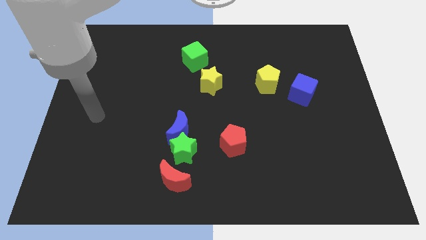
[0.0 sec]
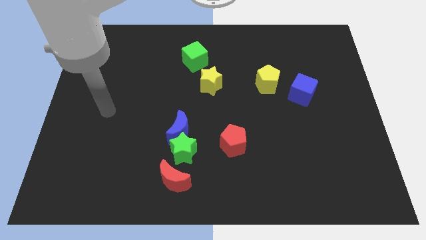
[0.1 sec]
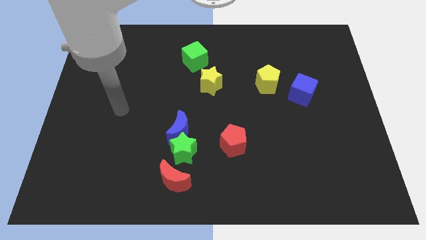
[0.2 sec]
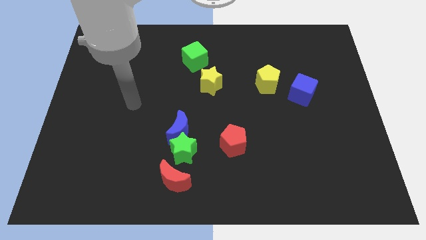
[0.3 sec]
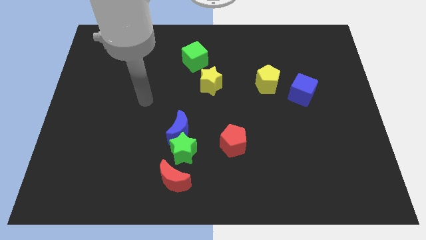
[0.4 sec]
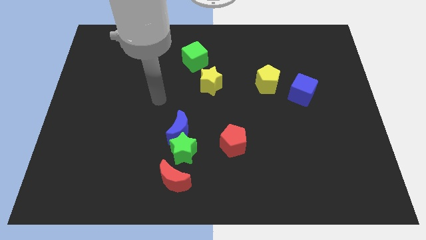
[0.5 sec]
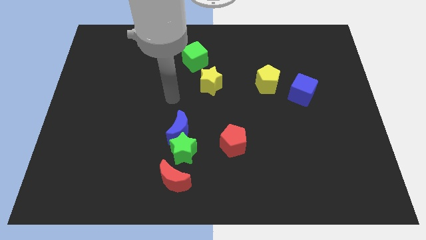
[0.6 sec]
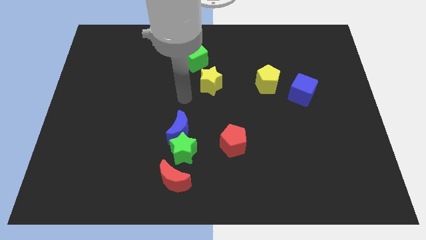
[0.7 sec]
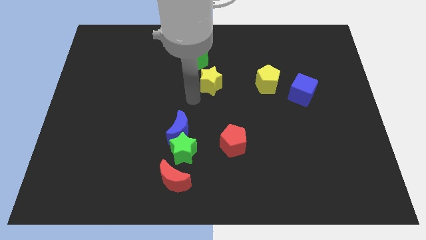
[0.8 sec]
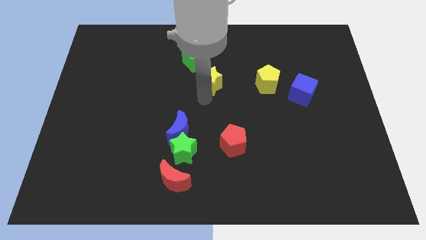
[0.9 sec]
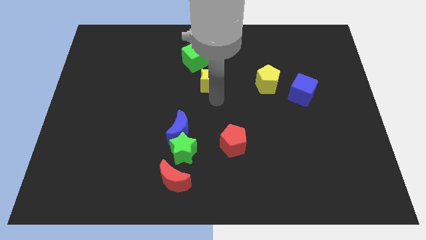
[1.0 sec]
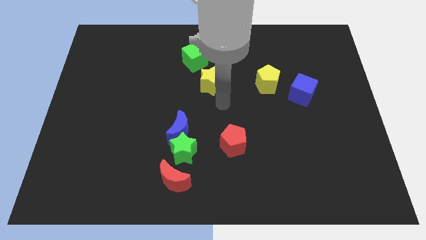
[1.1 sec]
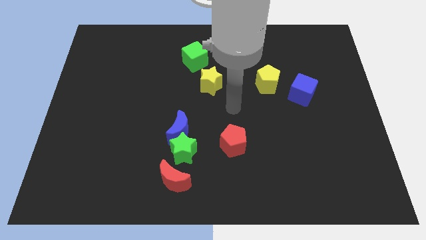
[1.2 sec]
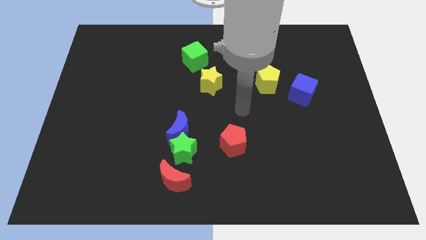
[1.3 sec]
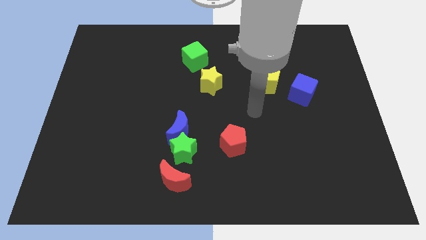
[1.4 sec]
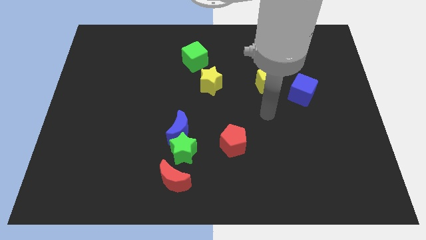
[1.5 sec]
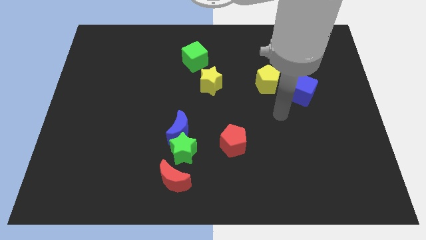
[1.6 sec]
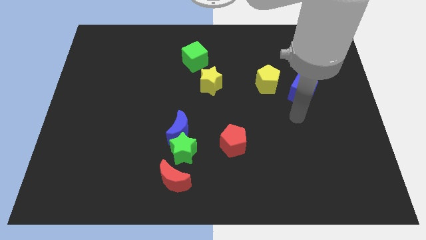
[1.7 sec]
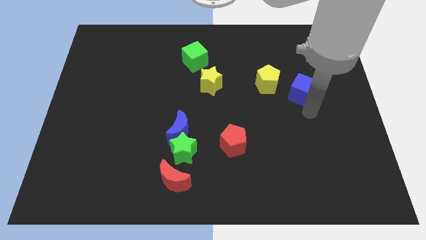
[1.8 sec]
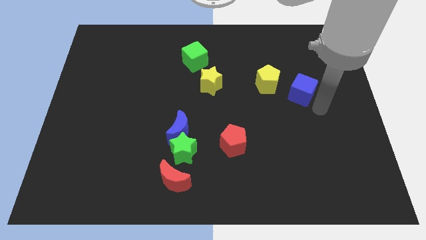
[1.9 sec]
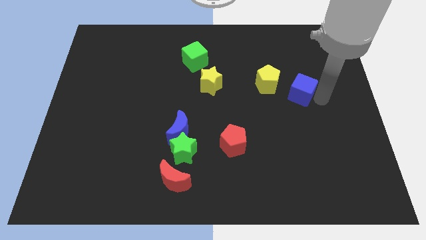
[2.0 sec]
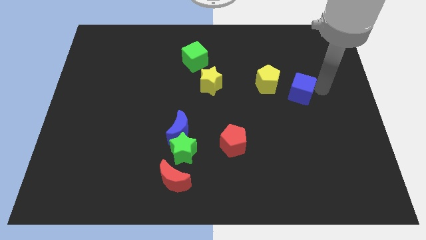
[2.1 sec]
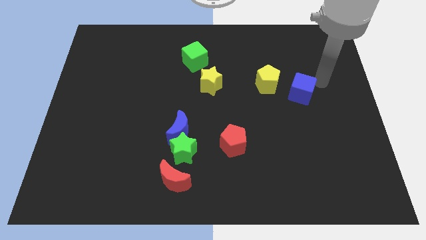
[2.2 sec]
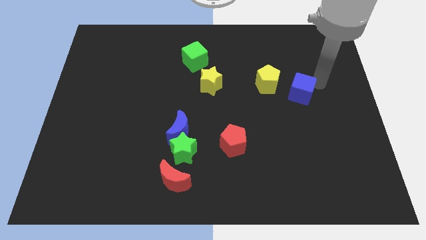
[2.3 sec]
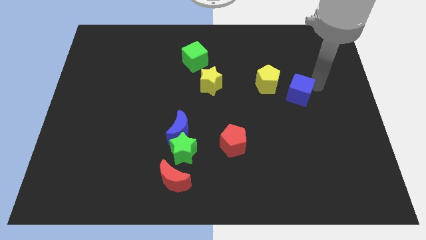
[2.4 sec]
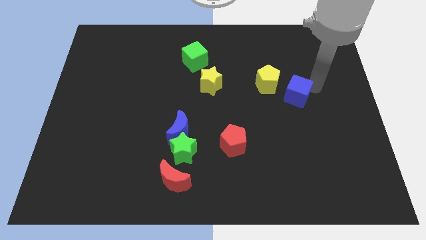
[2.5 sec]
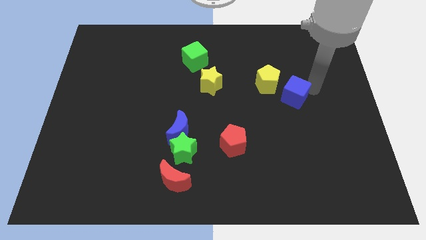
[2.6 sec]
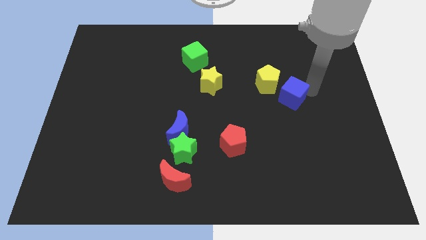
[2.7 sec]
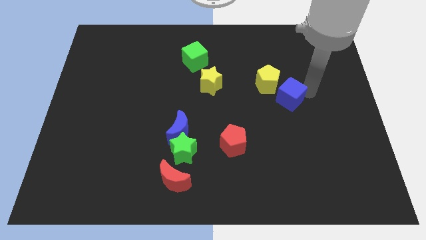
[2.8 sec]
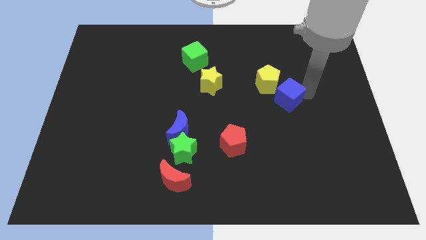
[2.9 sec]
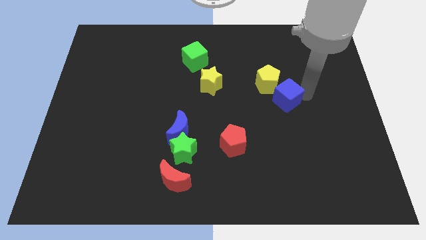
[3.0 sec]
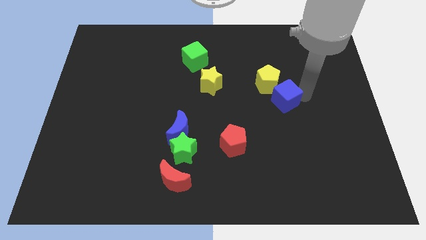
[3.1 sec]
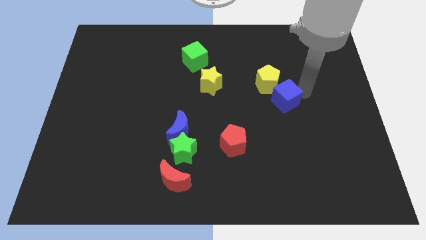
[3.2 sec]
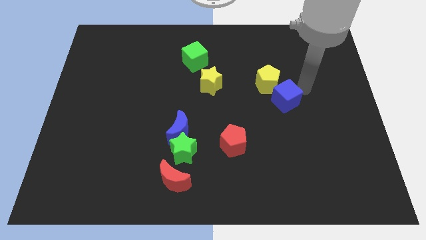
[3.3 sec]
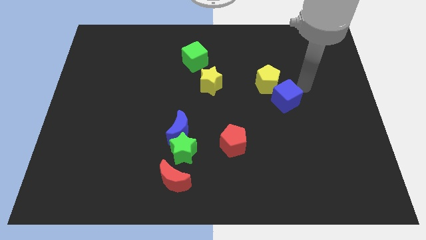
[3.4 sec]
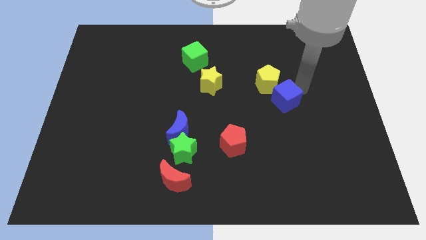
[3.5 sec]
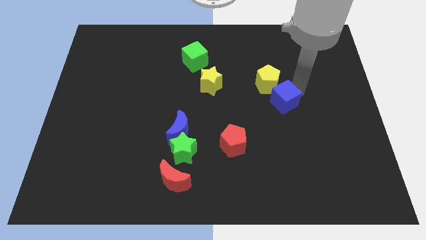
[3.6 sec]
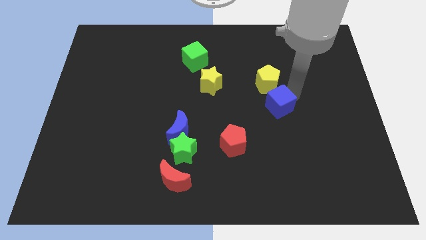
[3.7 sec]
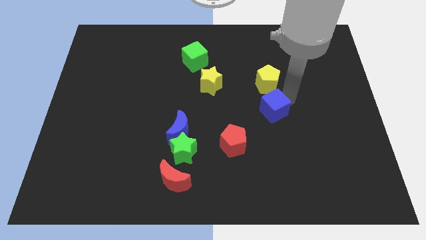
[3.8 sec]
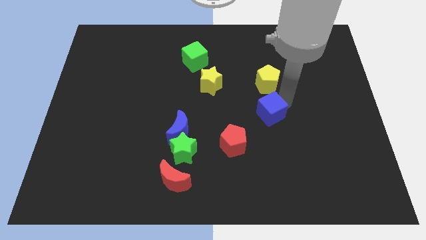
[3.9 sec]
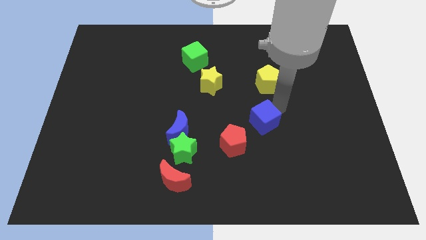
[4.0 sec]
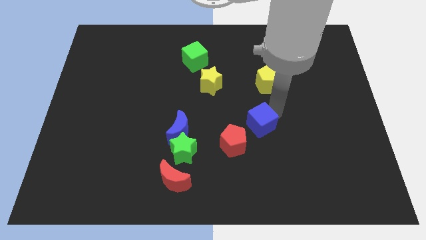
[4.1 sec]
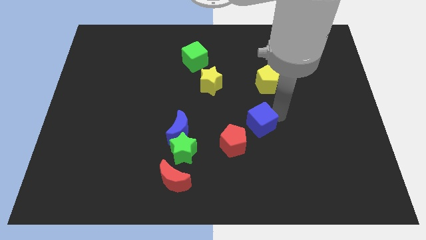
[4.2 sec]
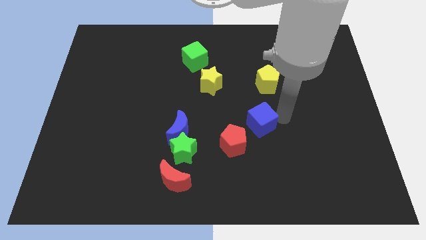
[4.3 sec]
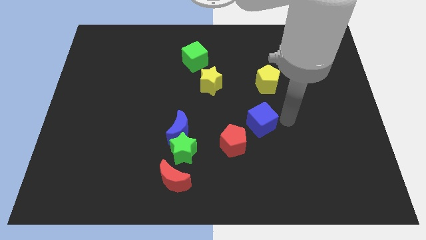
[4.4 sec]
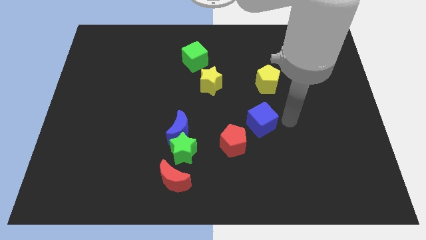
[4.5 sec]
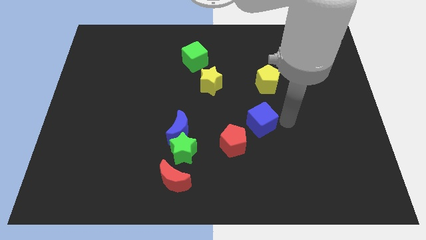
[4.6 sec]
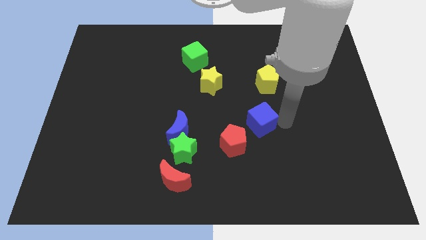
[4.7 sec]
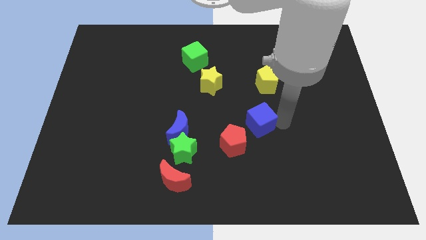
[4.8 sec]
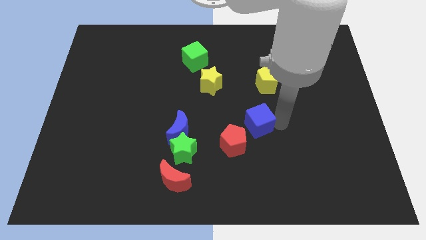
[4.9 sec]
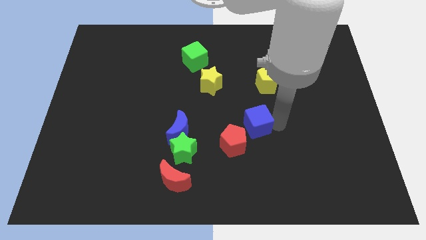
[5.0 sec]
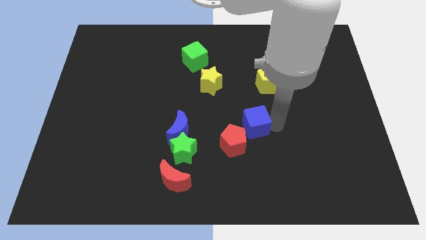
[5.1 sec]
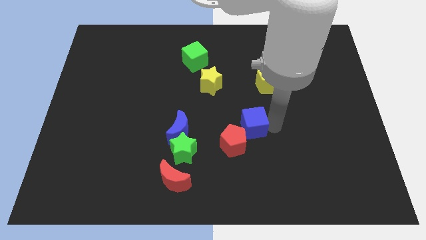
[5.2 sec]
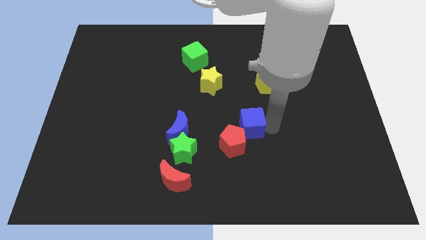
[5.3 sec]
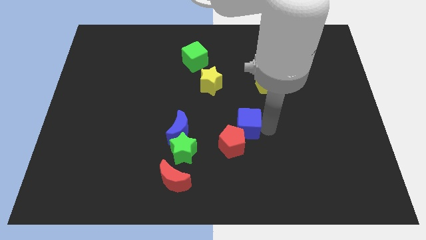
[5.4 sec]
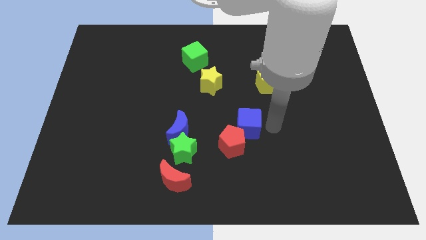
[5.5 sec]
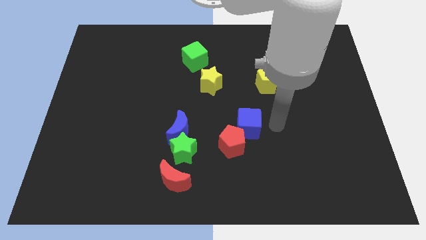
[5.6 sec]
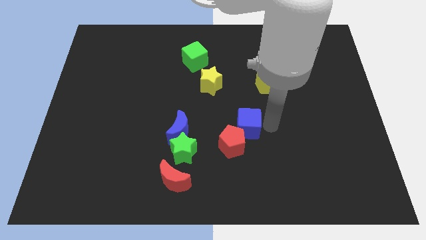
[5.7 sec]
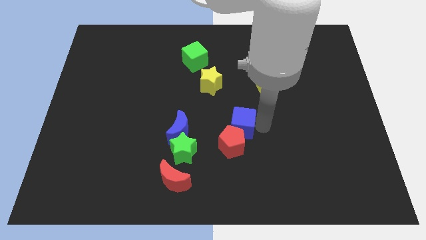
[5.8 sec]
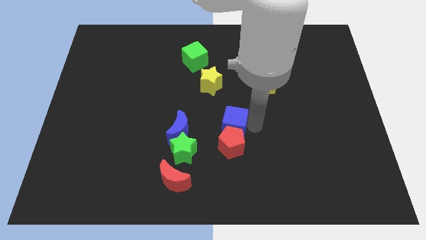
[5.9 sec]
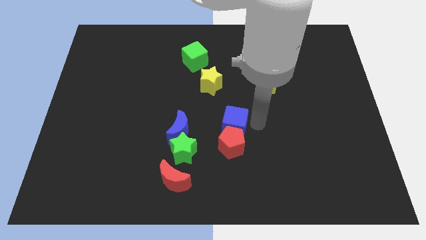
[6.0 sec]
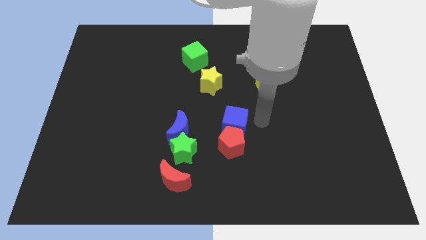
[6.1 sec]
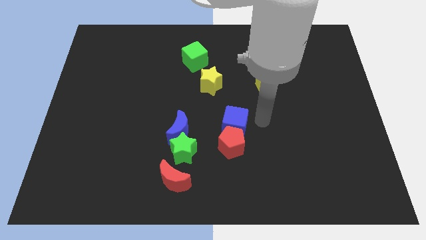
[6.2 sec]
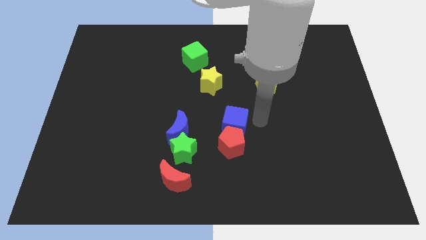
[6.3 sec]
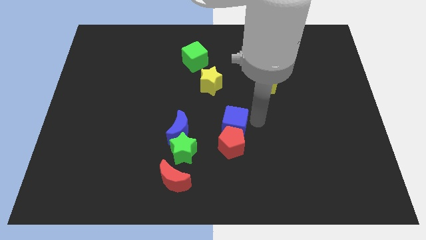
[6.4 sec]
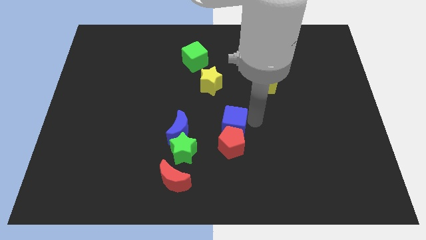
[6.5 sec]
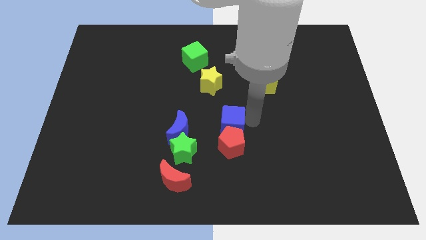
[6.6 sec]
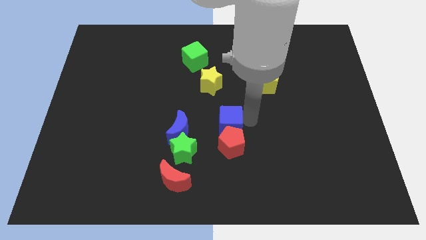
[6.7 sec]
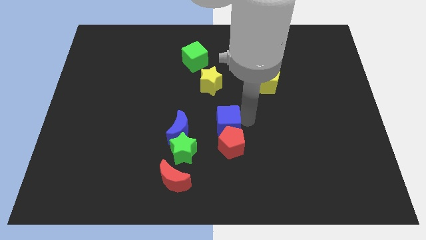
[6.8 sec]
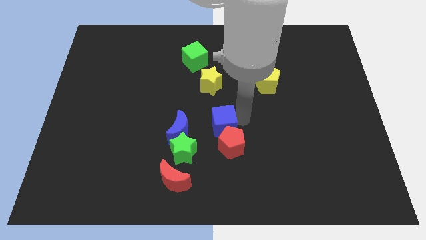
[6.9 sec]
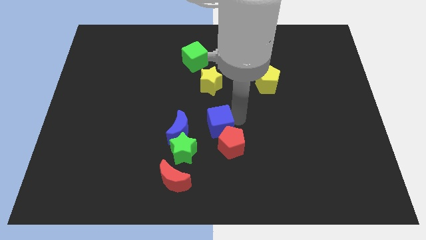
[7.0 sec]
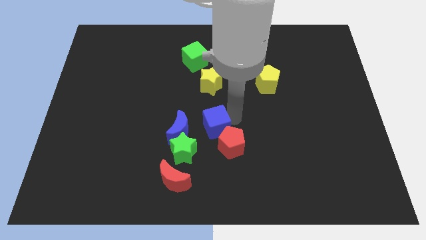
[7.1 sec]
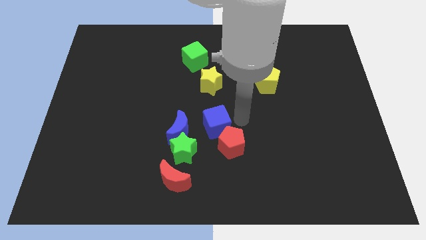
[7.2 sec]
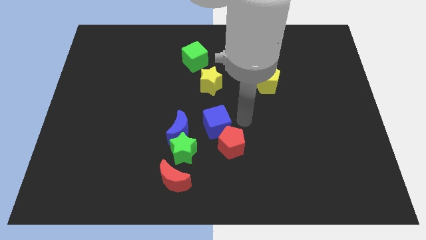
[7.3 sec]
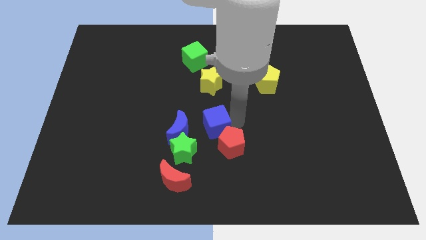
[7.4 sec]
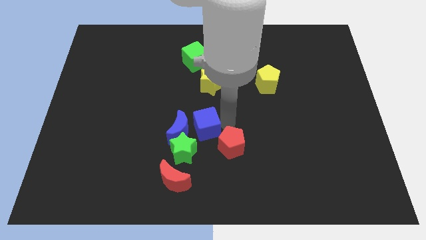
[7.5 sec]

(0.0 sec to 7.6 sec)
move the blue cube close to the blue moon
